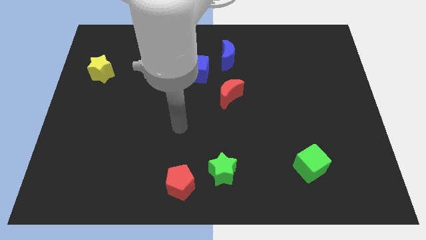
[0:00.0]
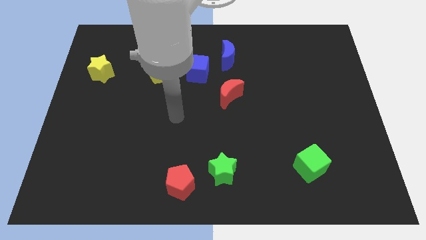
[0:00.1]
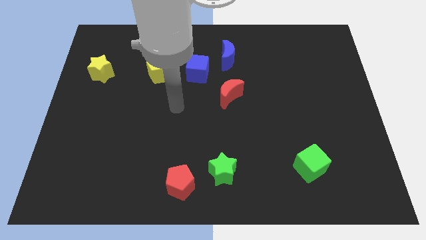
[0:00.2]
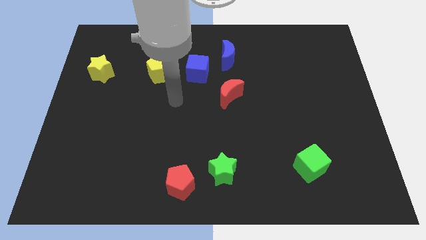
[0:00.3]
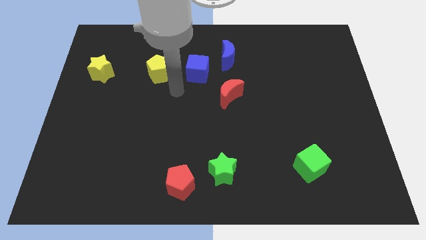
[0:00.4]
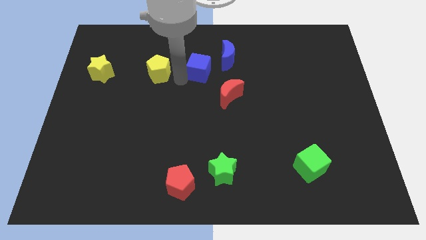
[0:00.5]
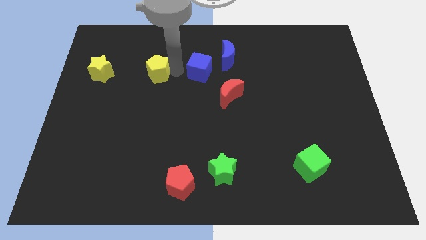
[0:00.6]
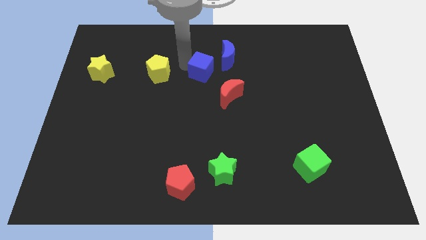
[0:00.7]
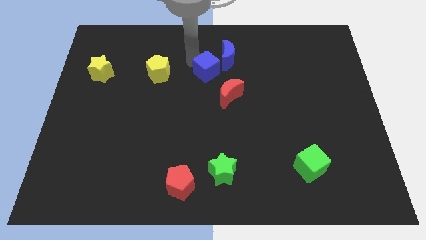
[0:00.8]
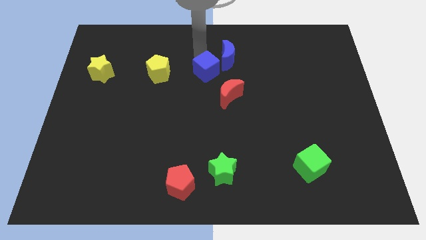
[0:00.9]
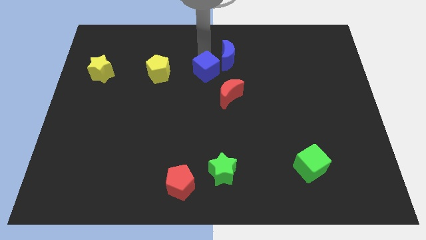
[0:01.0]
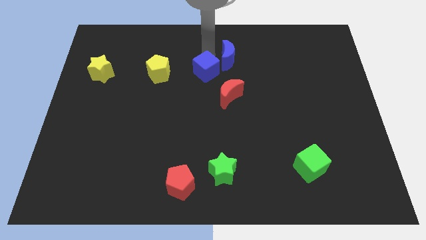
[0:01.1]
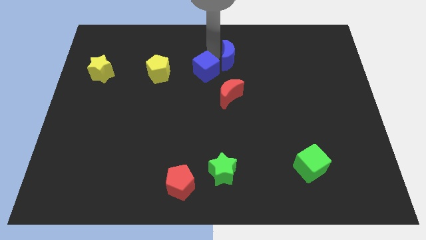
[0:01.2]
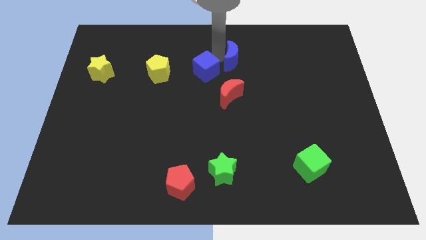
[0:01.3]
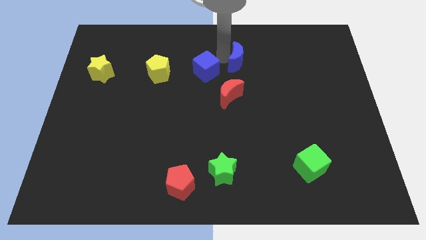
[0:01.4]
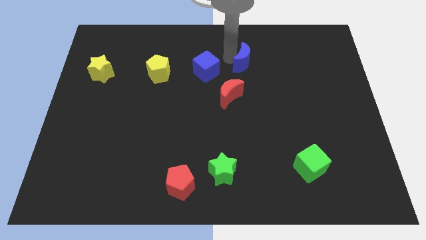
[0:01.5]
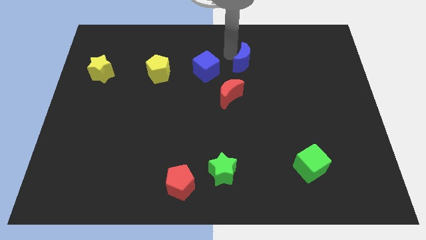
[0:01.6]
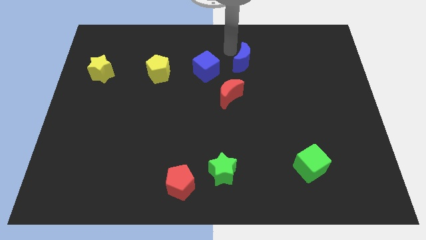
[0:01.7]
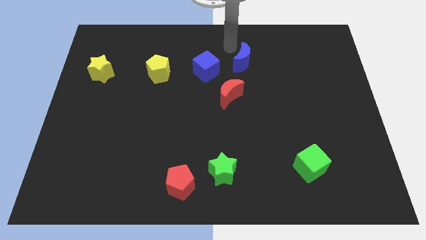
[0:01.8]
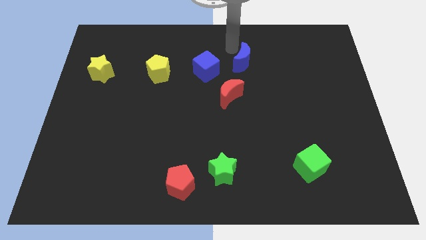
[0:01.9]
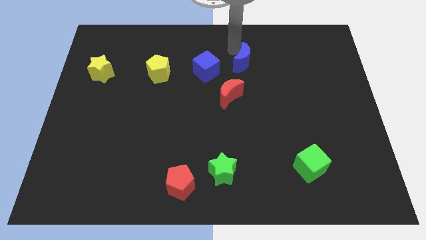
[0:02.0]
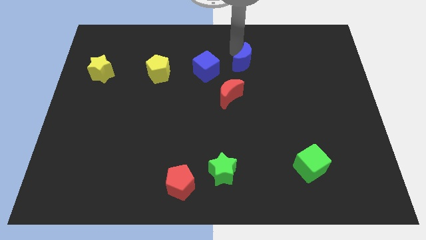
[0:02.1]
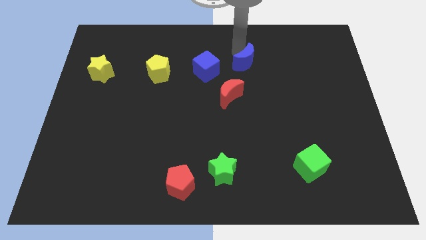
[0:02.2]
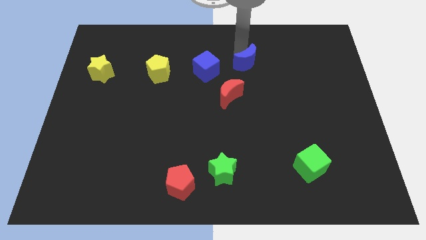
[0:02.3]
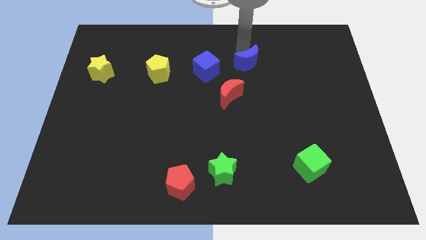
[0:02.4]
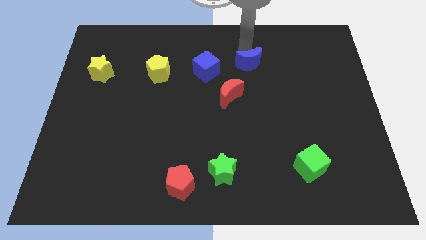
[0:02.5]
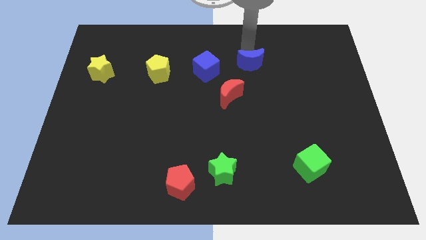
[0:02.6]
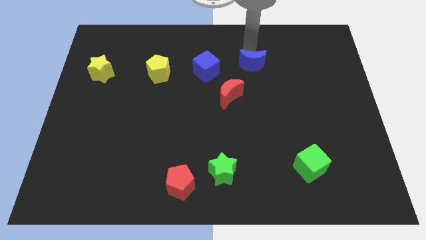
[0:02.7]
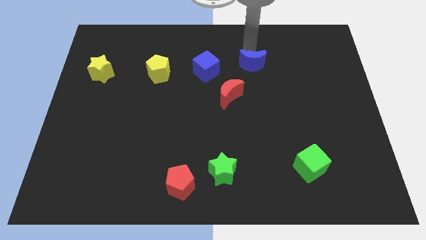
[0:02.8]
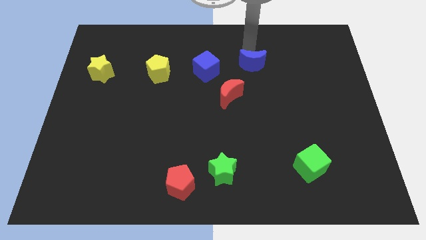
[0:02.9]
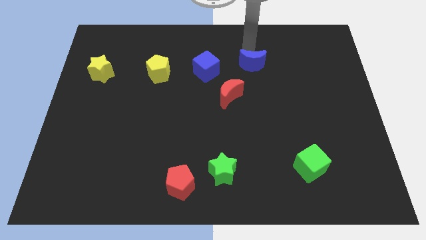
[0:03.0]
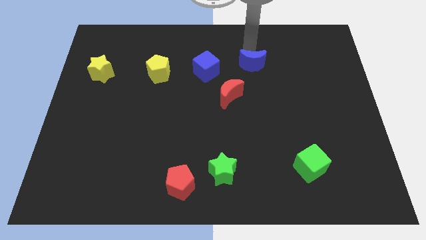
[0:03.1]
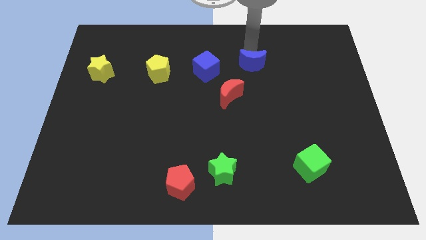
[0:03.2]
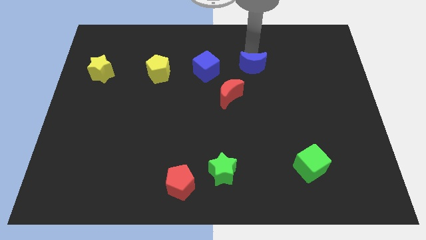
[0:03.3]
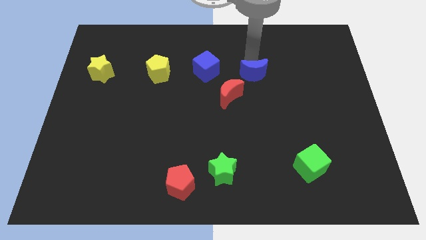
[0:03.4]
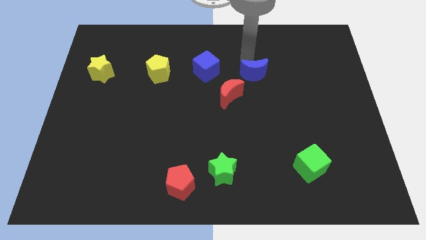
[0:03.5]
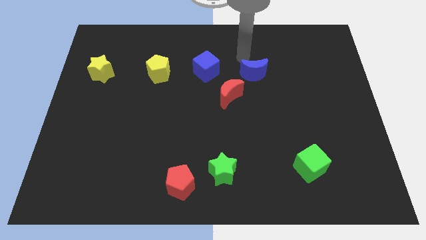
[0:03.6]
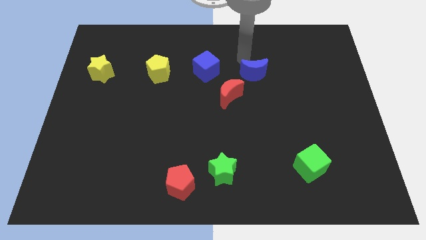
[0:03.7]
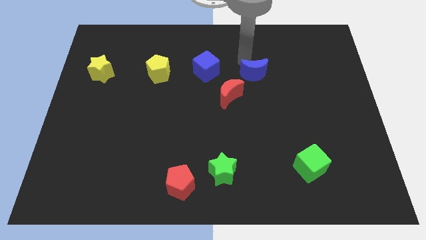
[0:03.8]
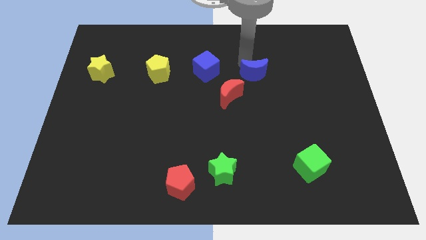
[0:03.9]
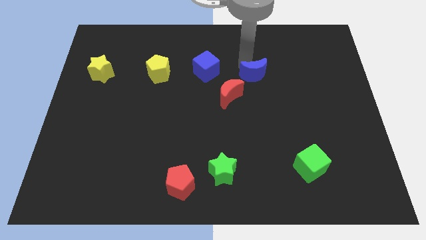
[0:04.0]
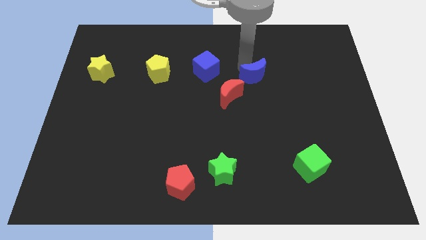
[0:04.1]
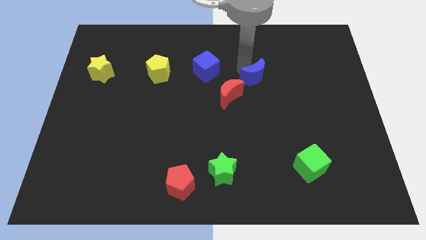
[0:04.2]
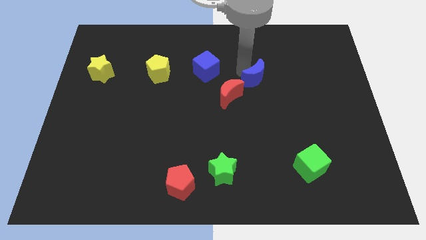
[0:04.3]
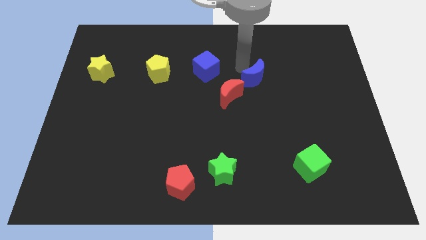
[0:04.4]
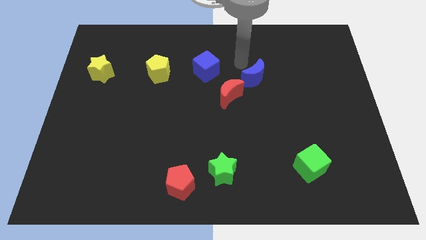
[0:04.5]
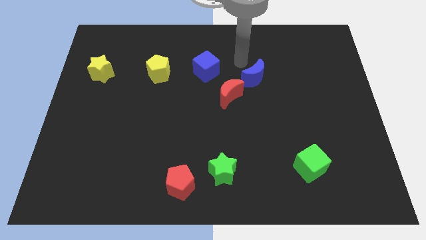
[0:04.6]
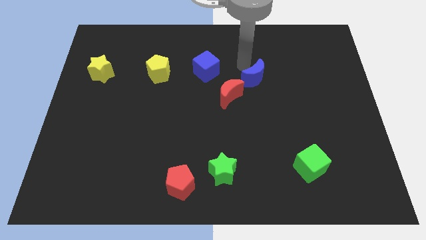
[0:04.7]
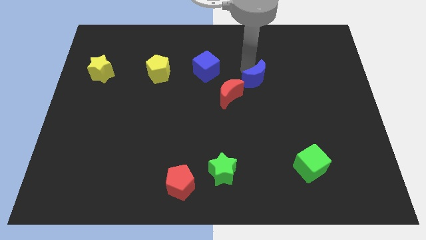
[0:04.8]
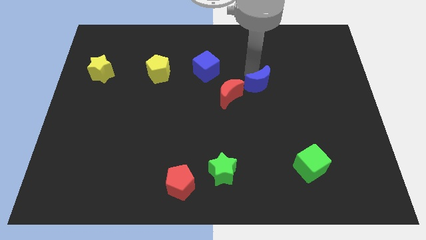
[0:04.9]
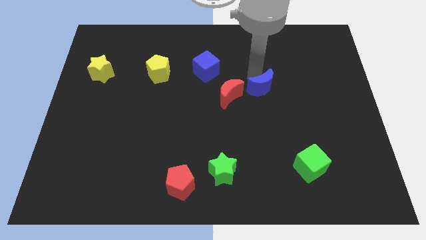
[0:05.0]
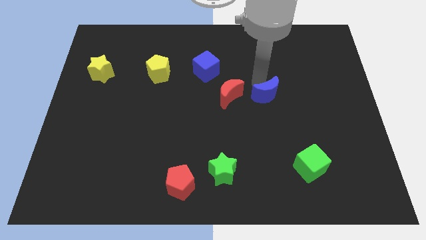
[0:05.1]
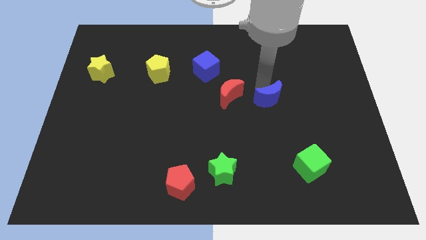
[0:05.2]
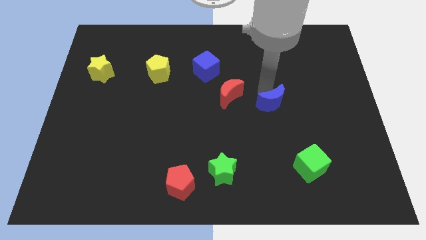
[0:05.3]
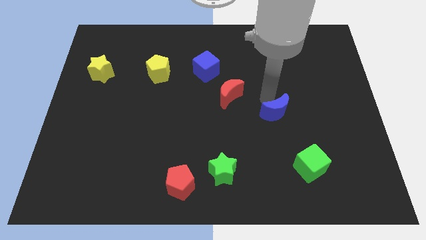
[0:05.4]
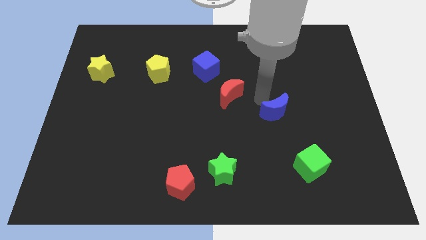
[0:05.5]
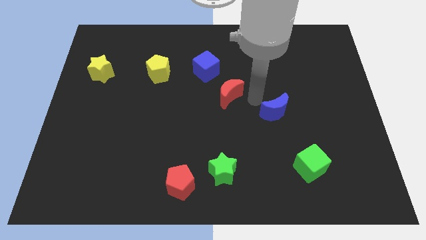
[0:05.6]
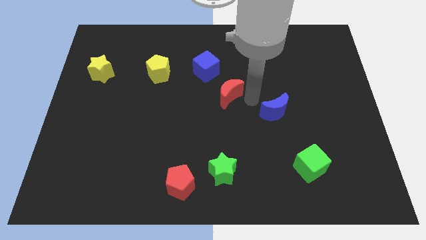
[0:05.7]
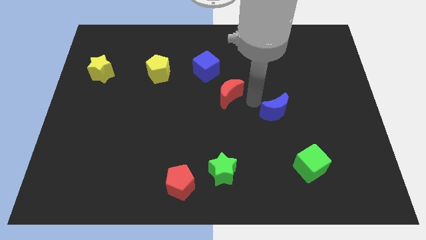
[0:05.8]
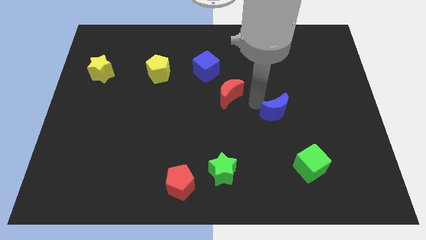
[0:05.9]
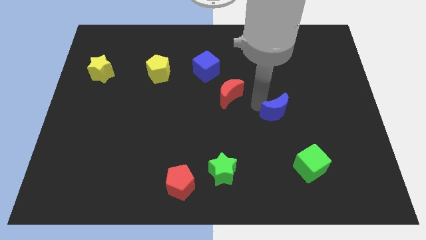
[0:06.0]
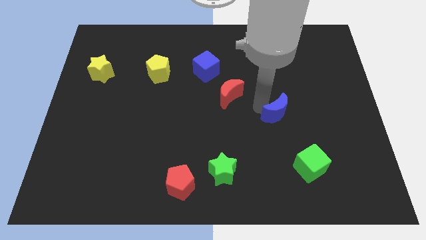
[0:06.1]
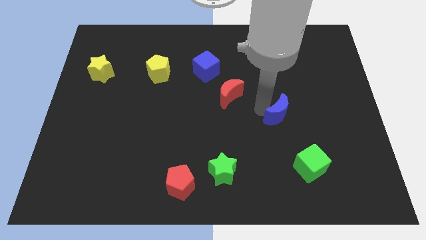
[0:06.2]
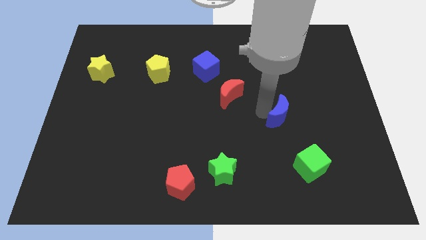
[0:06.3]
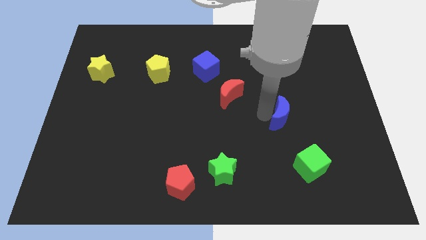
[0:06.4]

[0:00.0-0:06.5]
slide the blue moon to the top side of the green cube
